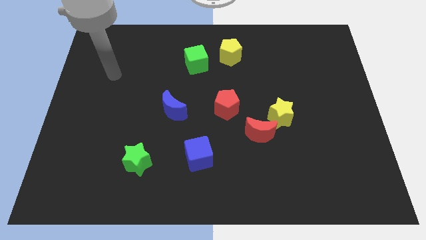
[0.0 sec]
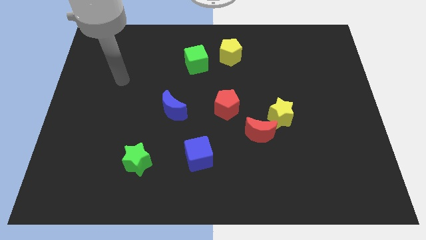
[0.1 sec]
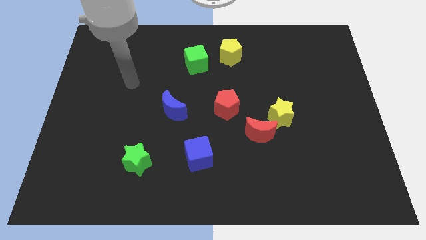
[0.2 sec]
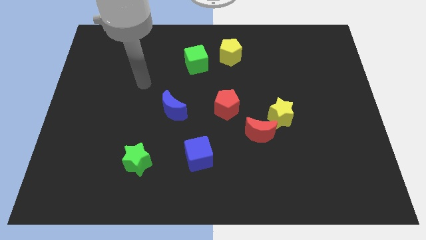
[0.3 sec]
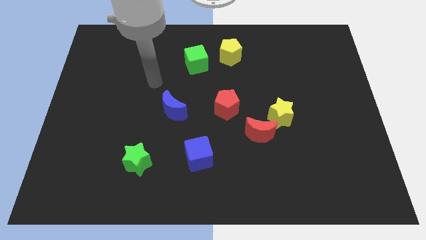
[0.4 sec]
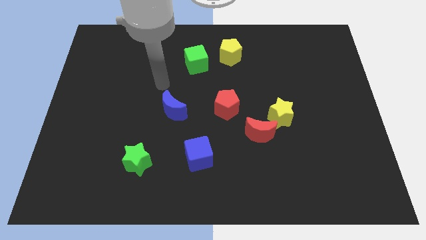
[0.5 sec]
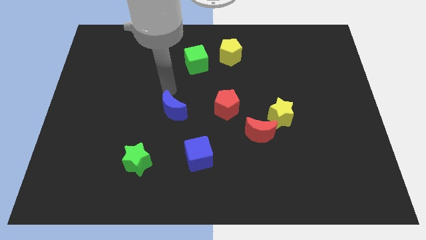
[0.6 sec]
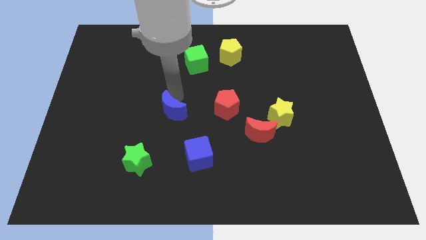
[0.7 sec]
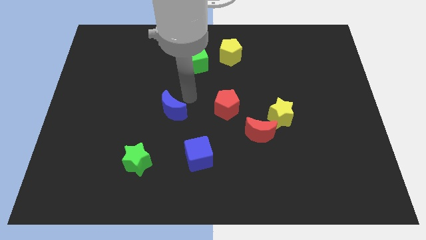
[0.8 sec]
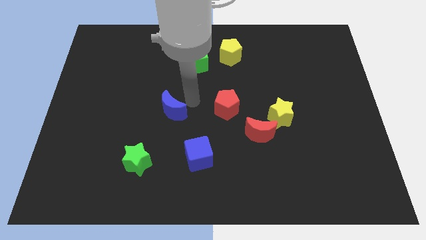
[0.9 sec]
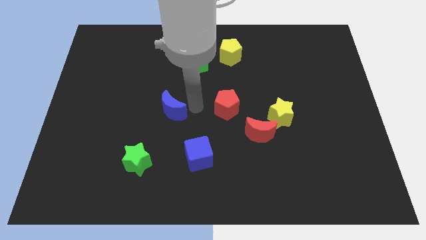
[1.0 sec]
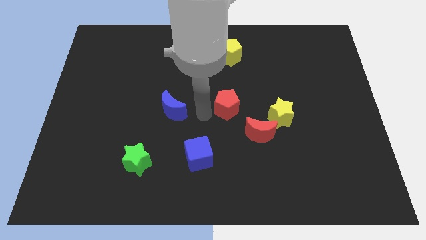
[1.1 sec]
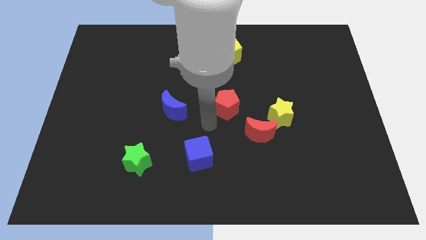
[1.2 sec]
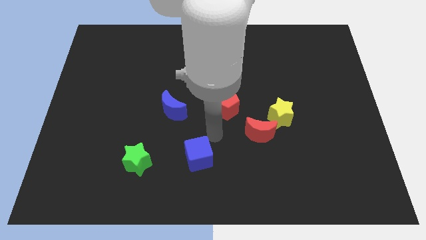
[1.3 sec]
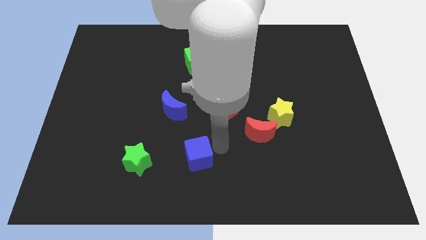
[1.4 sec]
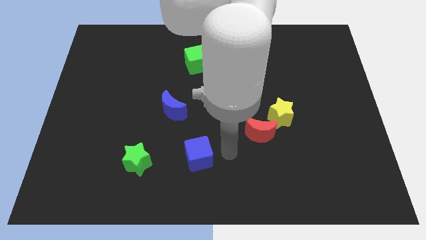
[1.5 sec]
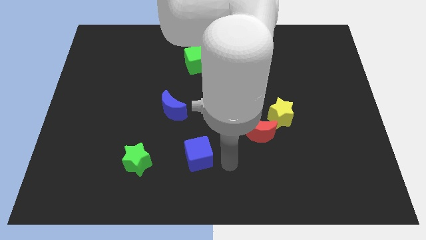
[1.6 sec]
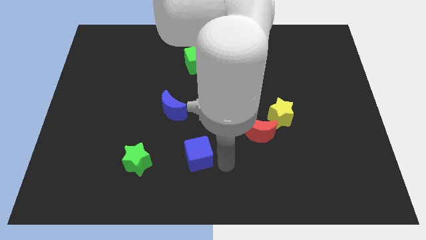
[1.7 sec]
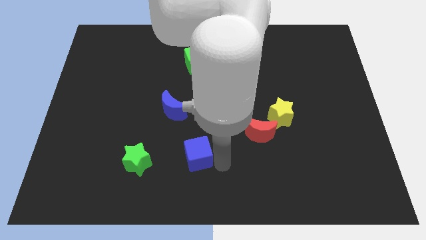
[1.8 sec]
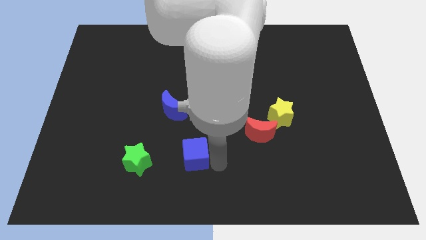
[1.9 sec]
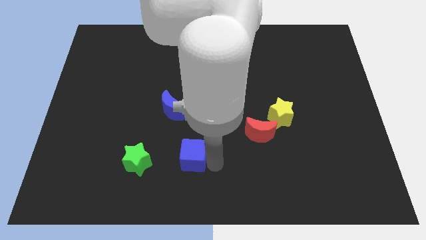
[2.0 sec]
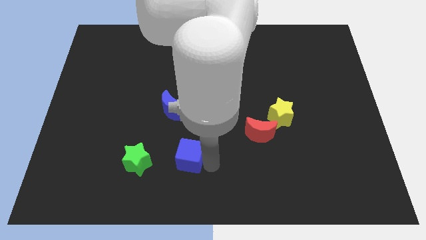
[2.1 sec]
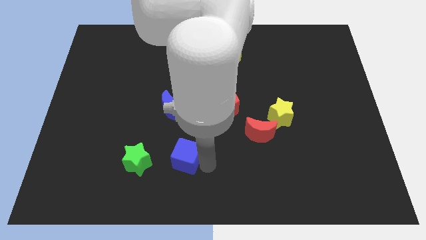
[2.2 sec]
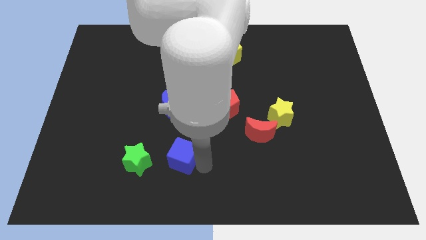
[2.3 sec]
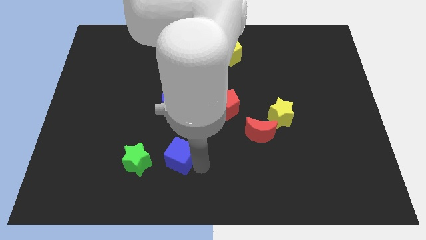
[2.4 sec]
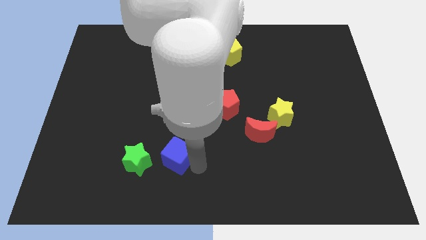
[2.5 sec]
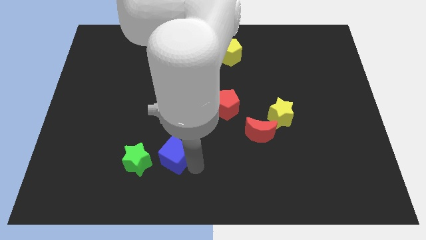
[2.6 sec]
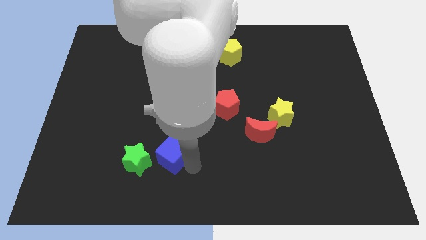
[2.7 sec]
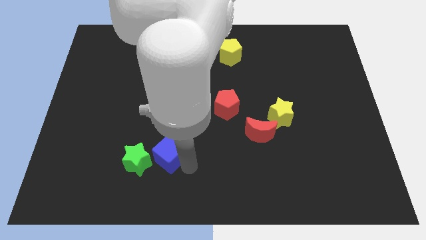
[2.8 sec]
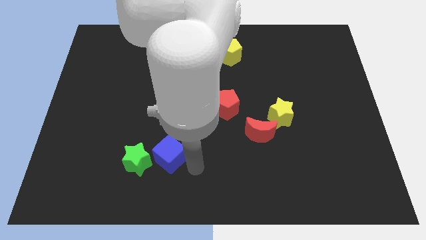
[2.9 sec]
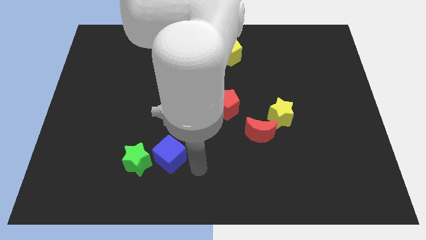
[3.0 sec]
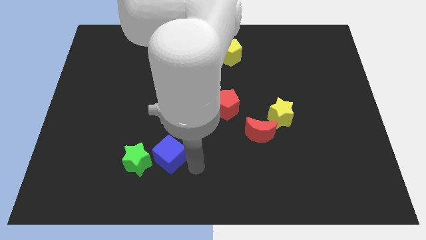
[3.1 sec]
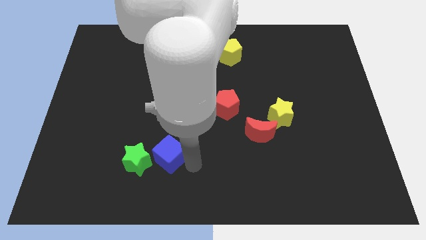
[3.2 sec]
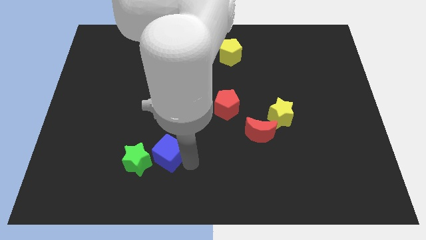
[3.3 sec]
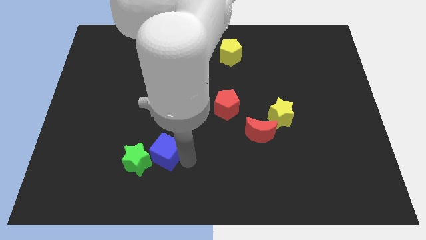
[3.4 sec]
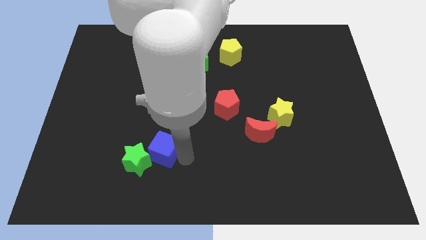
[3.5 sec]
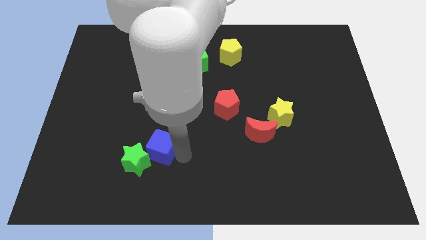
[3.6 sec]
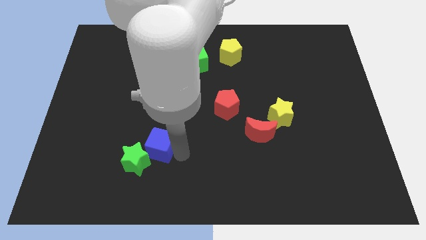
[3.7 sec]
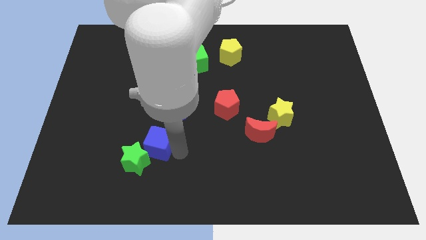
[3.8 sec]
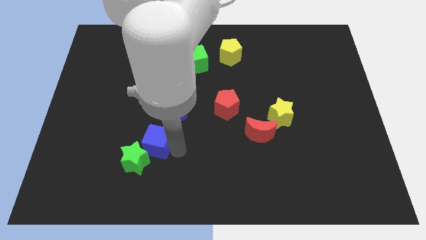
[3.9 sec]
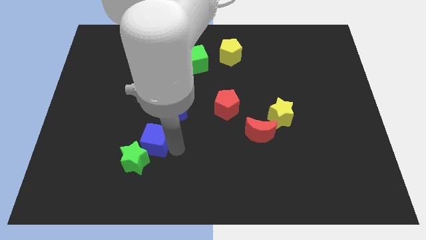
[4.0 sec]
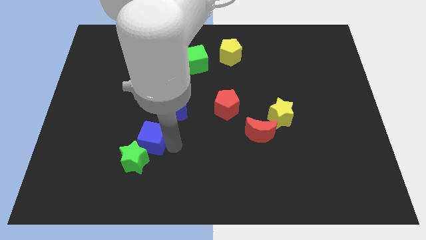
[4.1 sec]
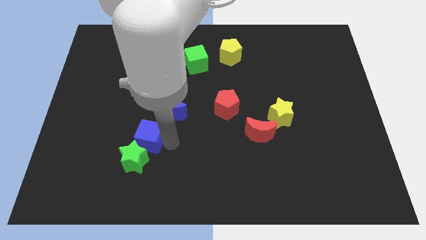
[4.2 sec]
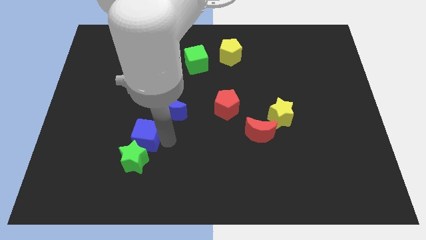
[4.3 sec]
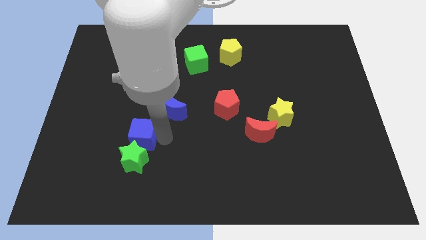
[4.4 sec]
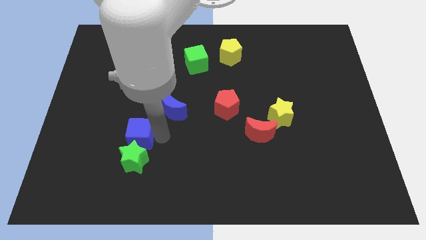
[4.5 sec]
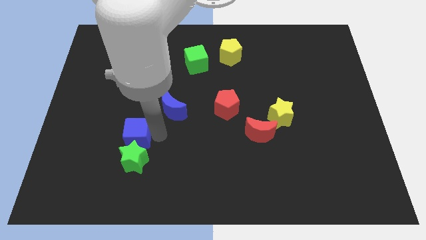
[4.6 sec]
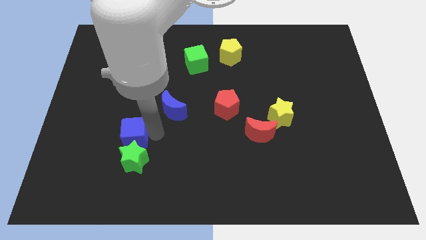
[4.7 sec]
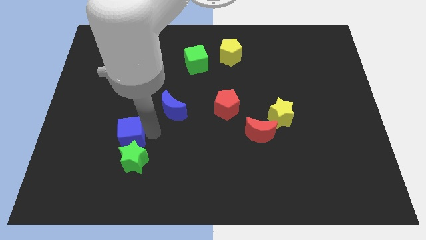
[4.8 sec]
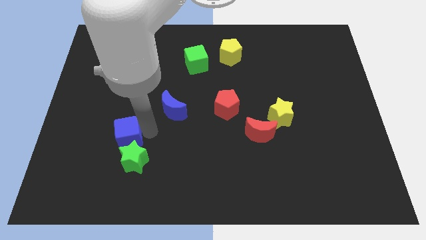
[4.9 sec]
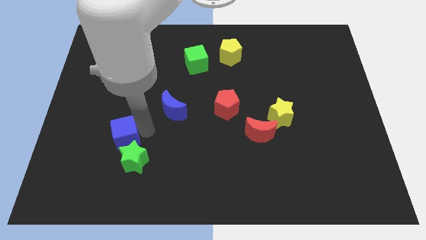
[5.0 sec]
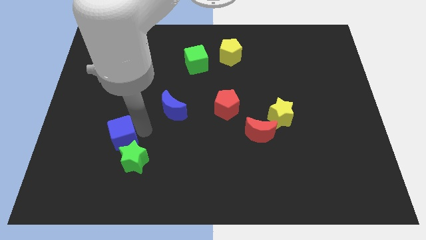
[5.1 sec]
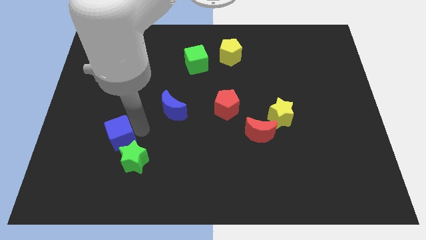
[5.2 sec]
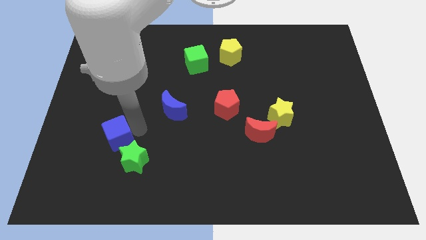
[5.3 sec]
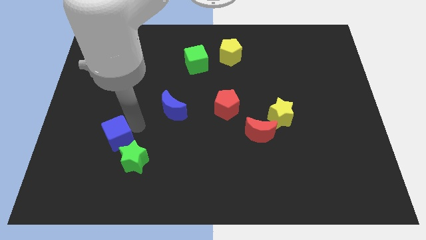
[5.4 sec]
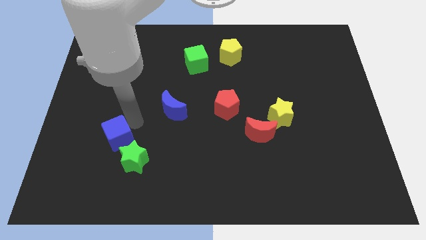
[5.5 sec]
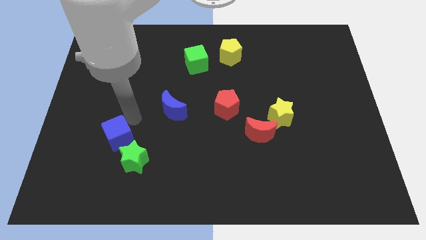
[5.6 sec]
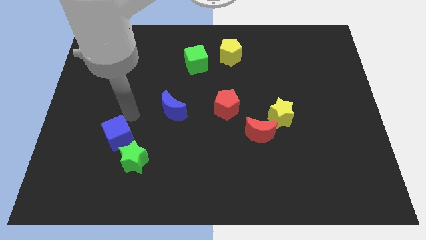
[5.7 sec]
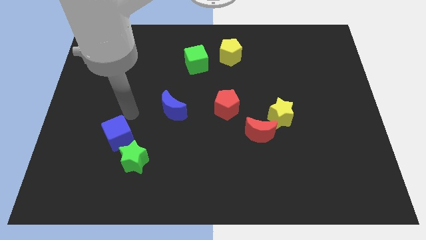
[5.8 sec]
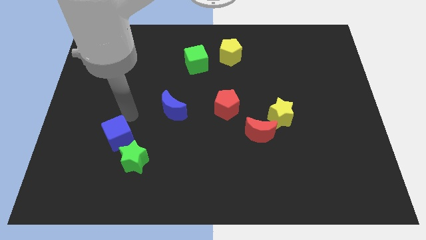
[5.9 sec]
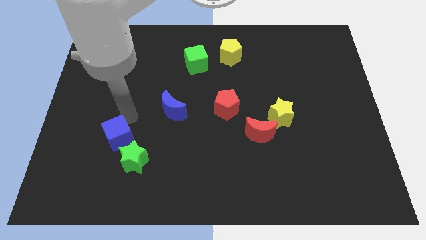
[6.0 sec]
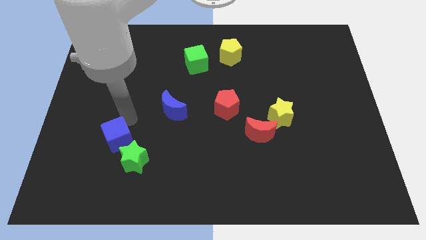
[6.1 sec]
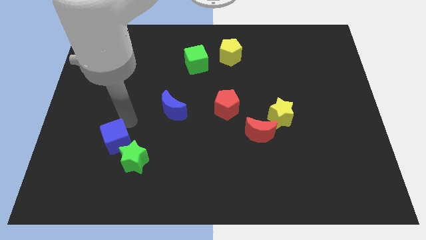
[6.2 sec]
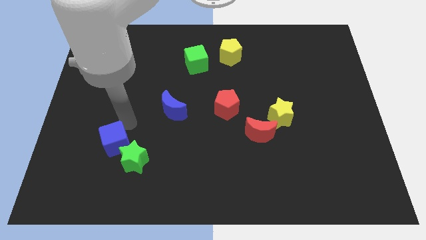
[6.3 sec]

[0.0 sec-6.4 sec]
push the blue cube just left of the green star

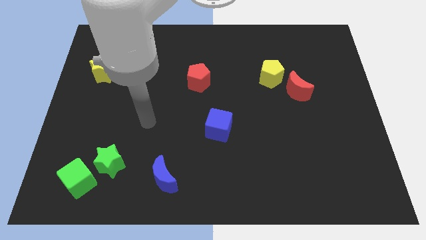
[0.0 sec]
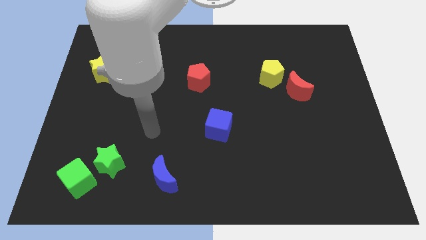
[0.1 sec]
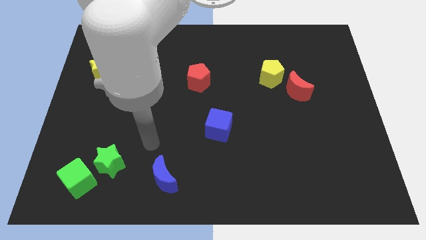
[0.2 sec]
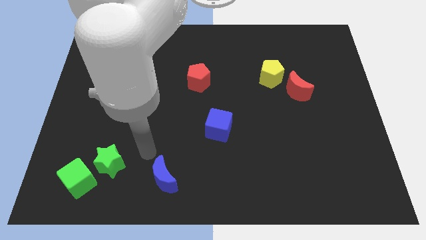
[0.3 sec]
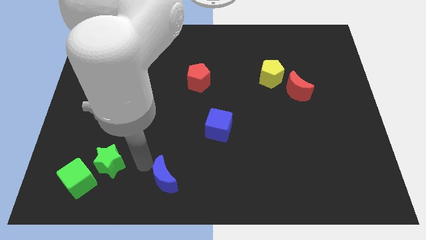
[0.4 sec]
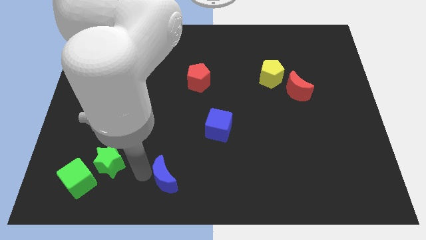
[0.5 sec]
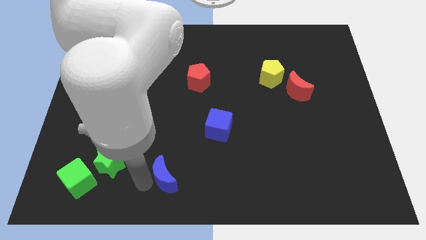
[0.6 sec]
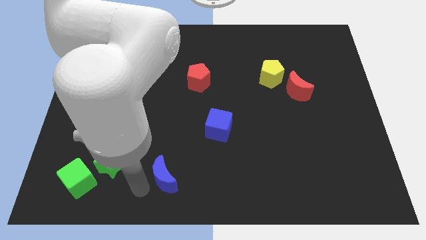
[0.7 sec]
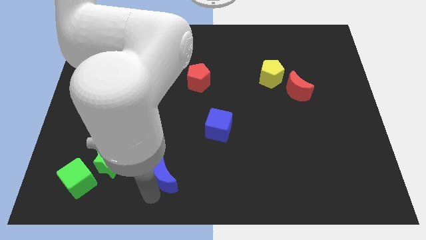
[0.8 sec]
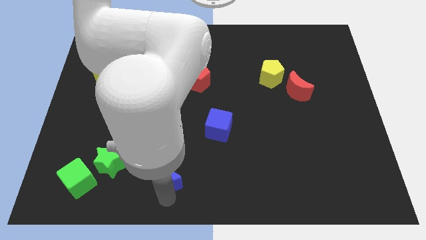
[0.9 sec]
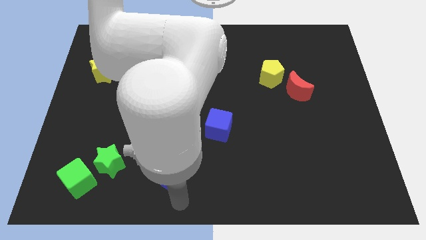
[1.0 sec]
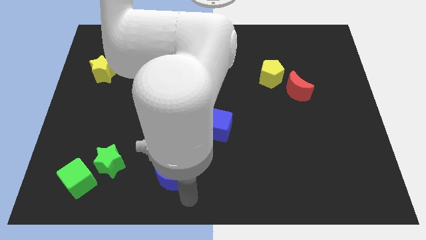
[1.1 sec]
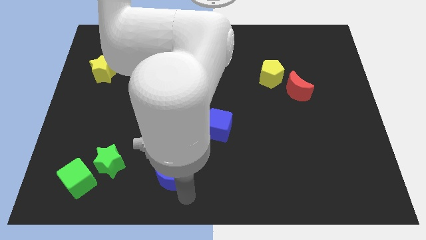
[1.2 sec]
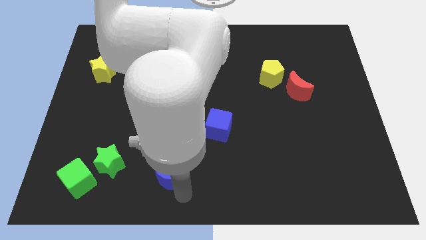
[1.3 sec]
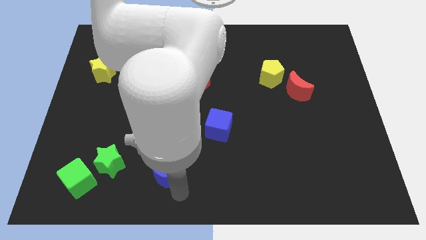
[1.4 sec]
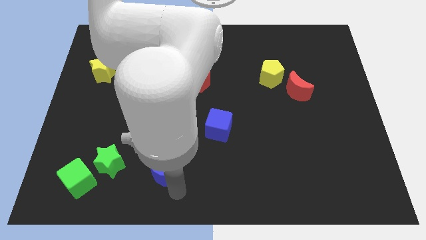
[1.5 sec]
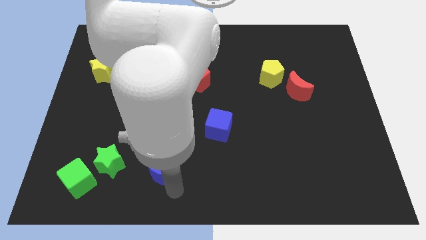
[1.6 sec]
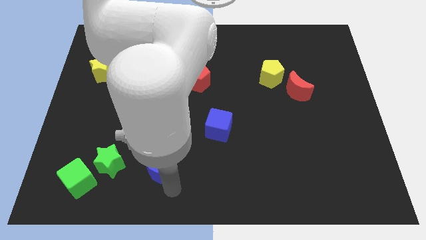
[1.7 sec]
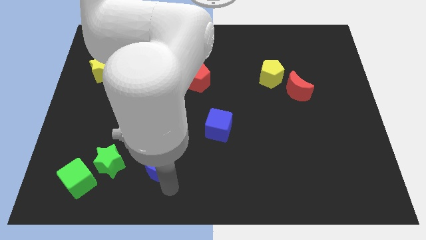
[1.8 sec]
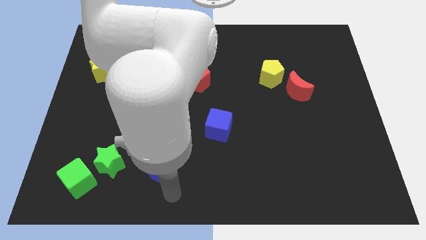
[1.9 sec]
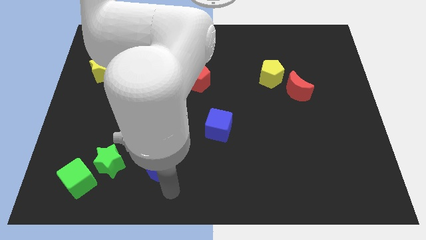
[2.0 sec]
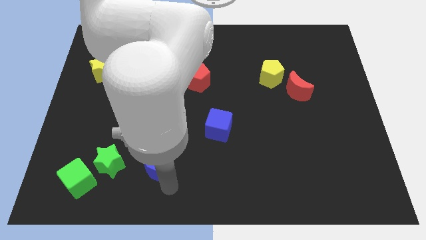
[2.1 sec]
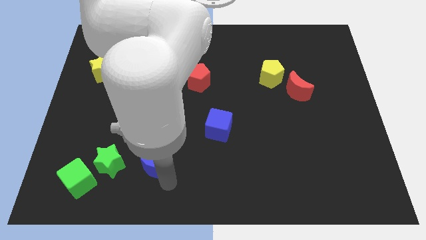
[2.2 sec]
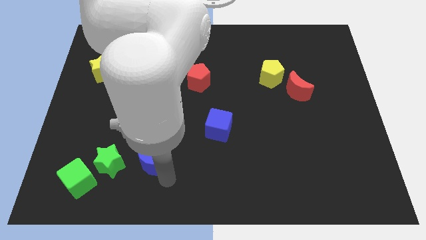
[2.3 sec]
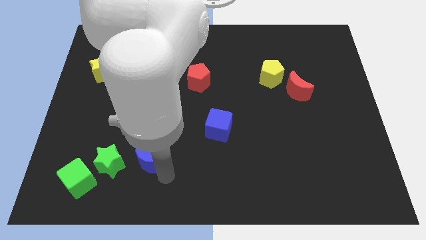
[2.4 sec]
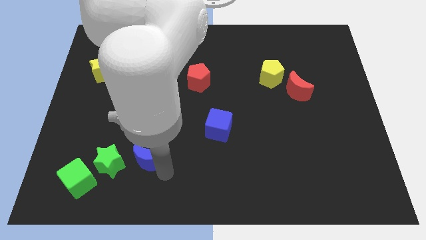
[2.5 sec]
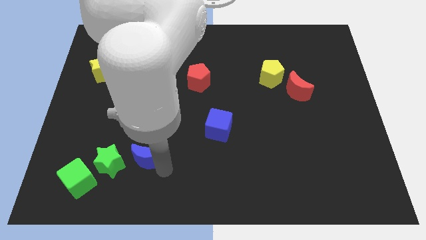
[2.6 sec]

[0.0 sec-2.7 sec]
push the blue moon to the top right of the green star
